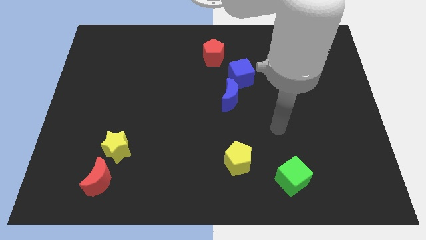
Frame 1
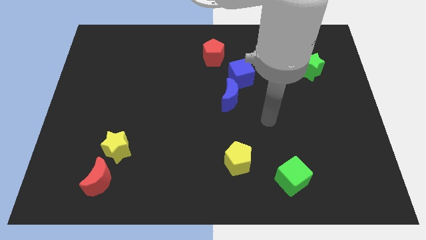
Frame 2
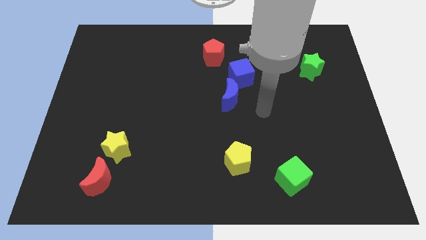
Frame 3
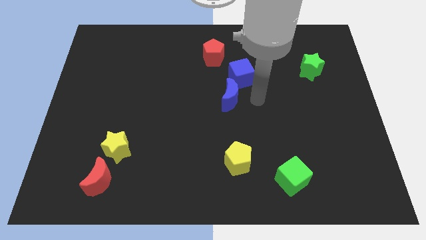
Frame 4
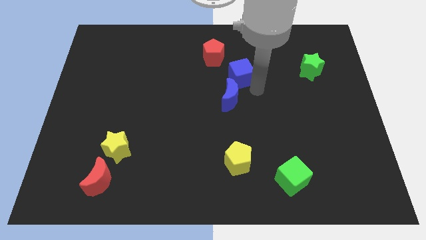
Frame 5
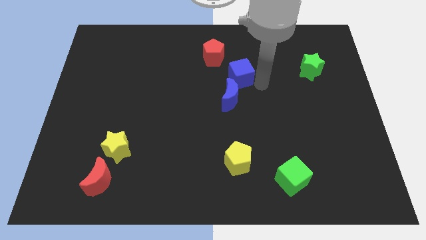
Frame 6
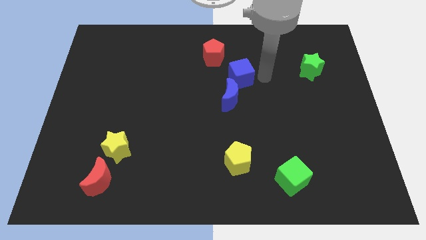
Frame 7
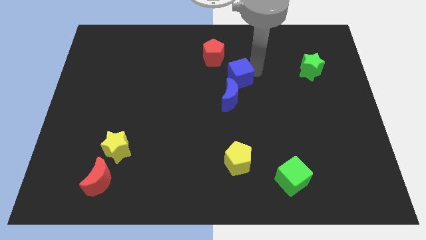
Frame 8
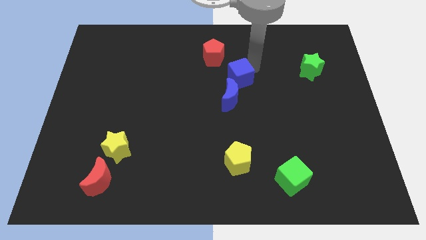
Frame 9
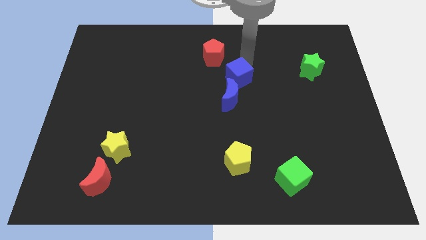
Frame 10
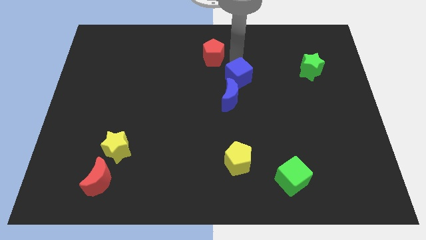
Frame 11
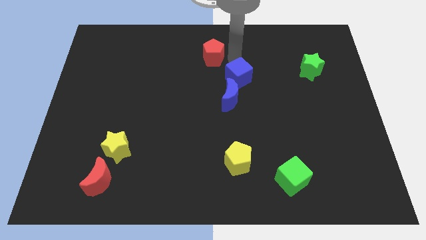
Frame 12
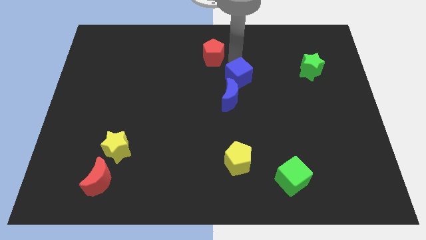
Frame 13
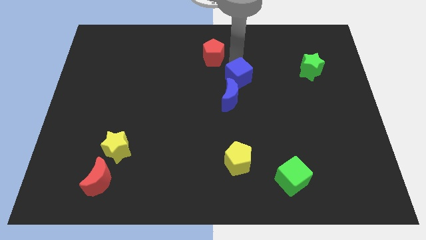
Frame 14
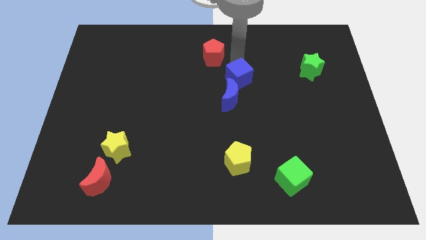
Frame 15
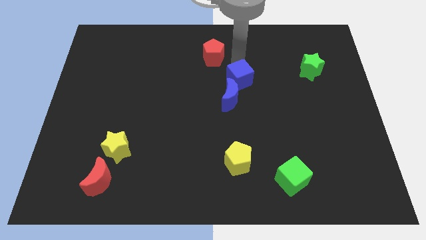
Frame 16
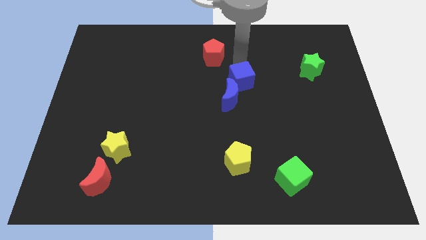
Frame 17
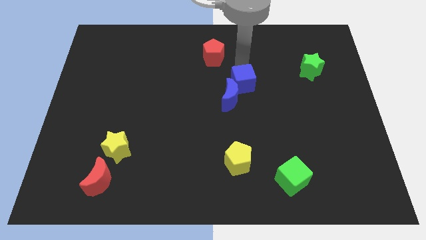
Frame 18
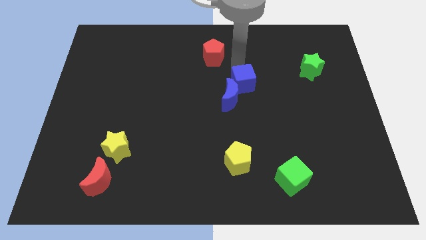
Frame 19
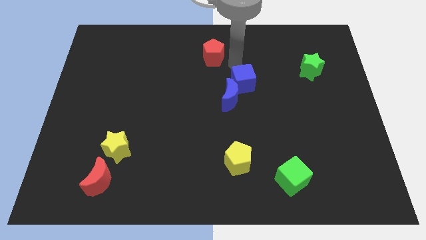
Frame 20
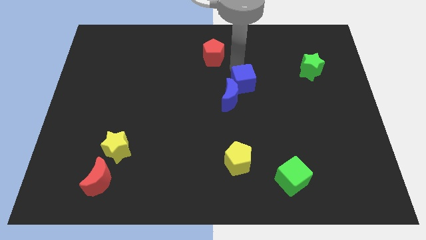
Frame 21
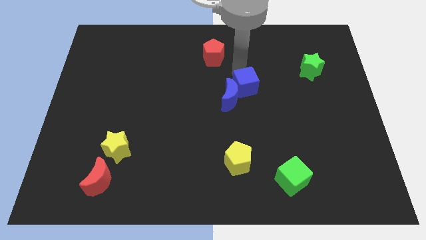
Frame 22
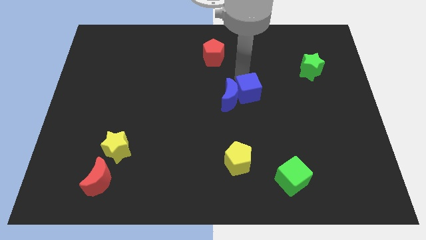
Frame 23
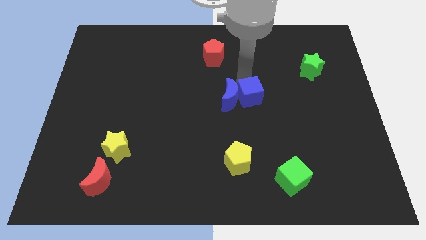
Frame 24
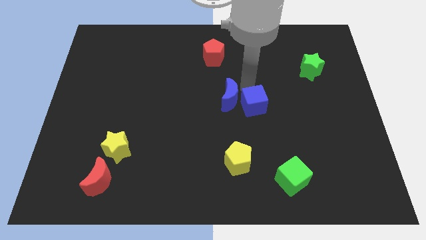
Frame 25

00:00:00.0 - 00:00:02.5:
slide the blue cube a little bit downwards

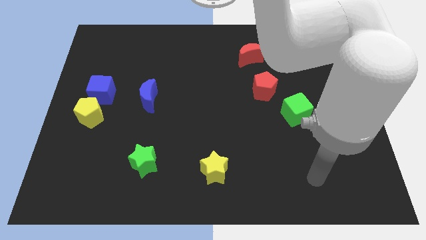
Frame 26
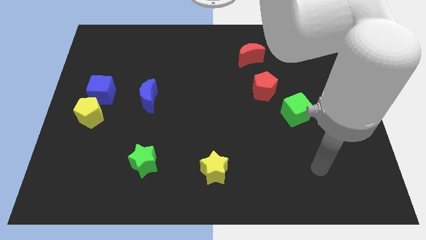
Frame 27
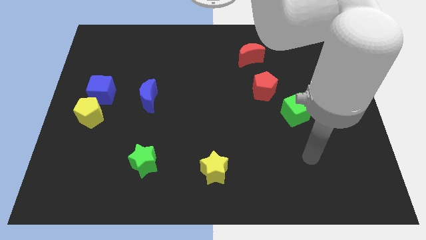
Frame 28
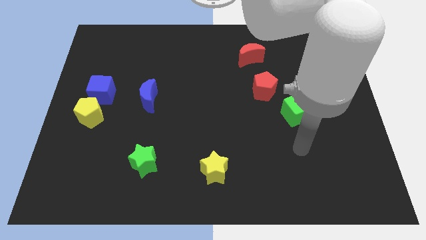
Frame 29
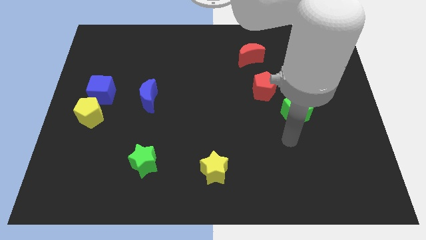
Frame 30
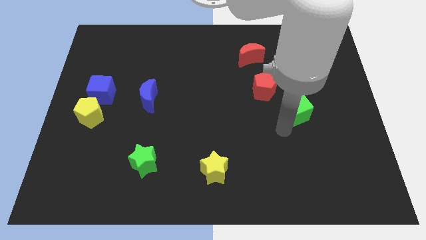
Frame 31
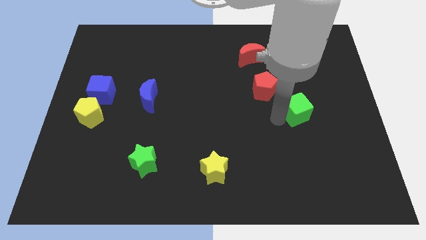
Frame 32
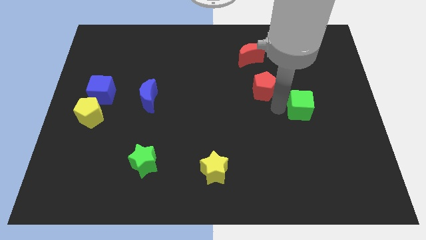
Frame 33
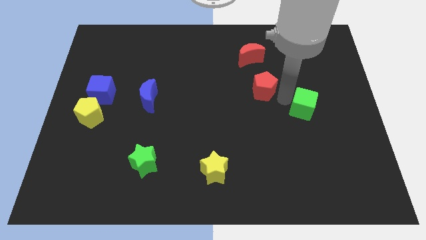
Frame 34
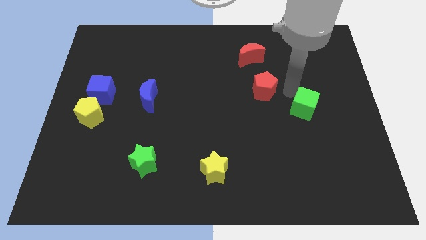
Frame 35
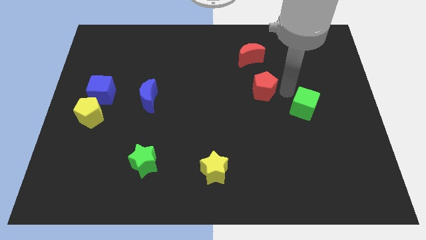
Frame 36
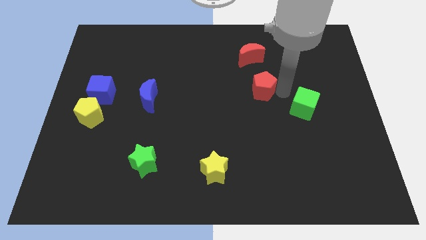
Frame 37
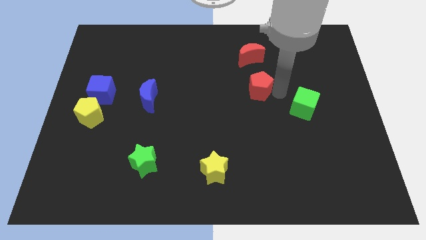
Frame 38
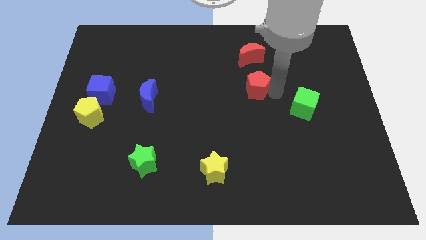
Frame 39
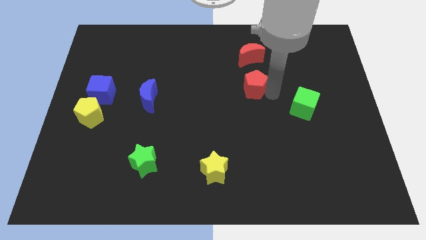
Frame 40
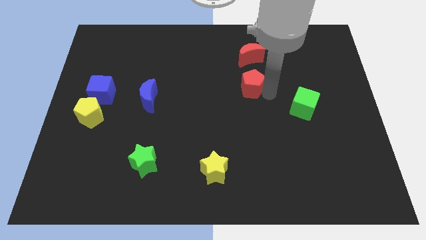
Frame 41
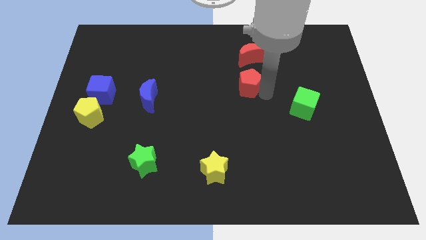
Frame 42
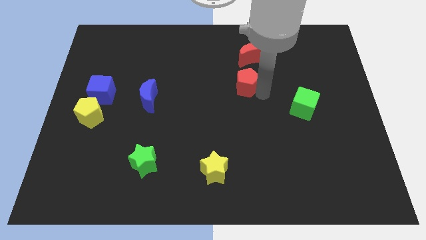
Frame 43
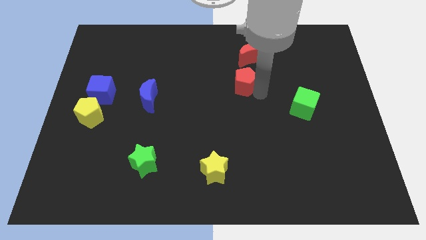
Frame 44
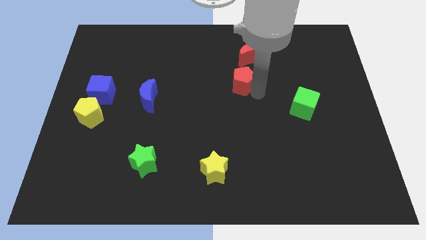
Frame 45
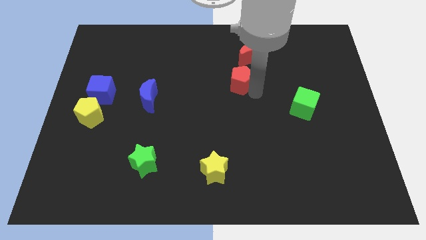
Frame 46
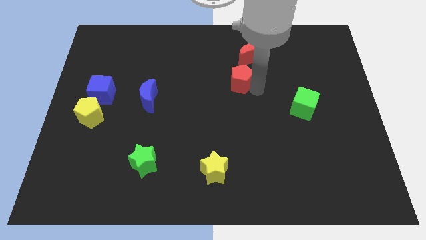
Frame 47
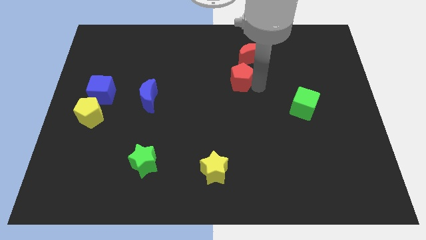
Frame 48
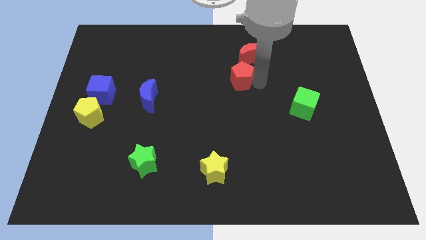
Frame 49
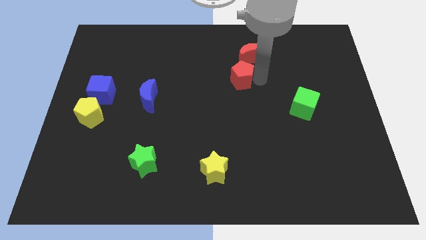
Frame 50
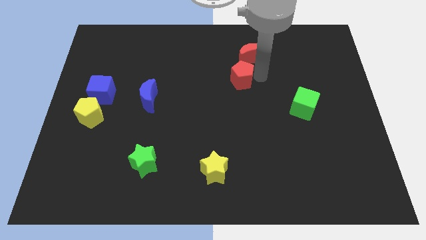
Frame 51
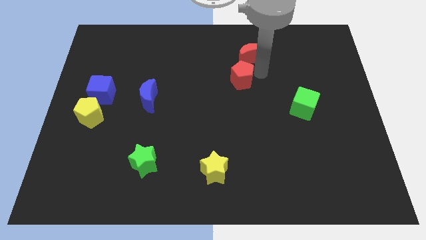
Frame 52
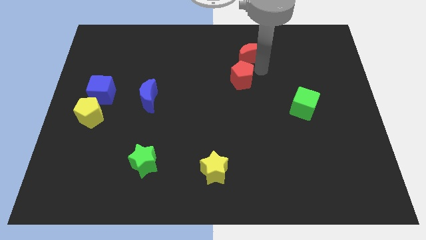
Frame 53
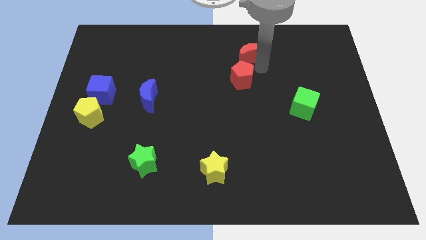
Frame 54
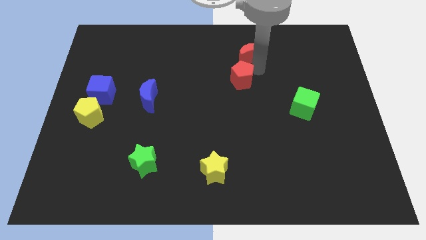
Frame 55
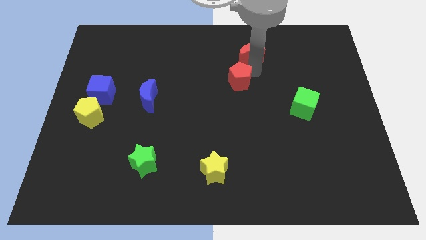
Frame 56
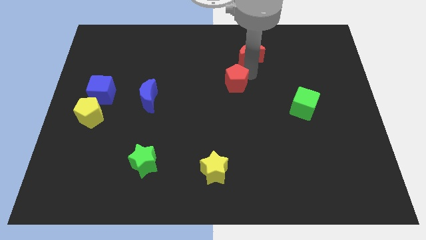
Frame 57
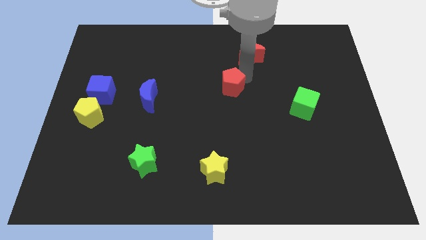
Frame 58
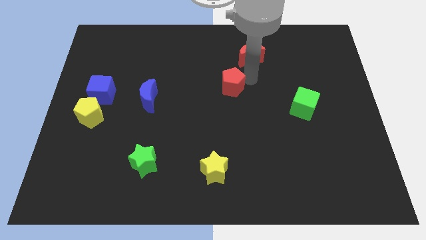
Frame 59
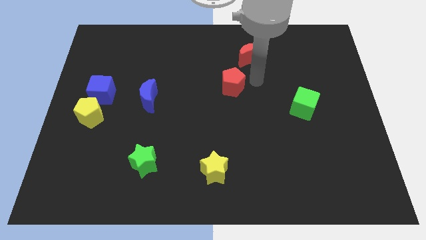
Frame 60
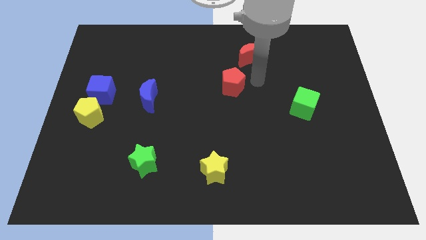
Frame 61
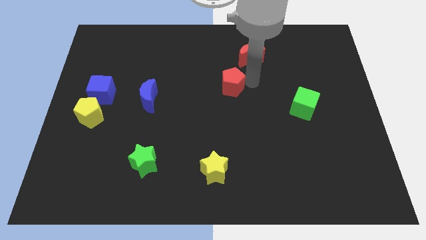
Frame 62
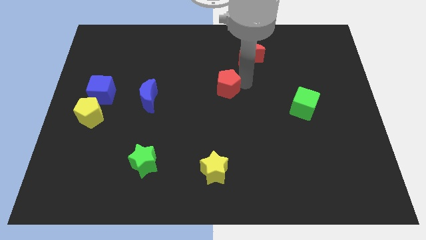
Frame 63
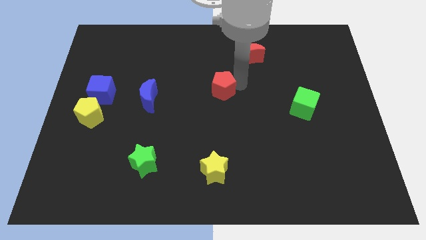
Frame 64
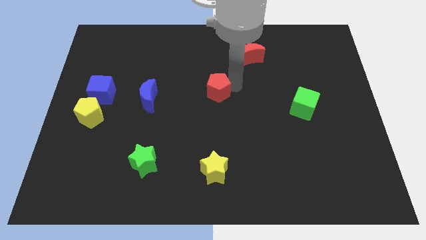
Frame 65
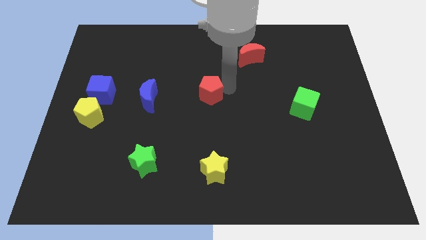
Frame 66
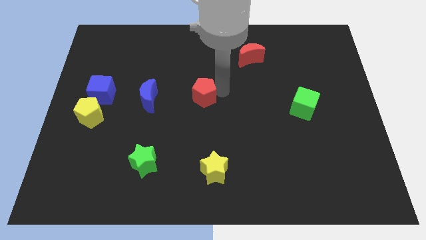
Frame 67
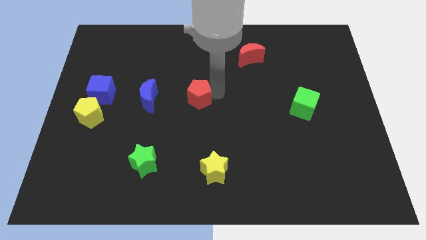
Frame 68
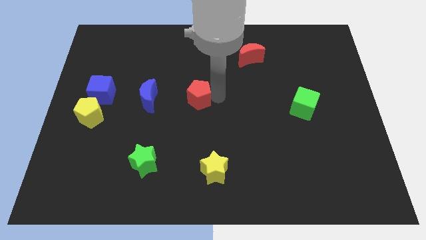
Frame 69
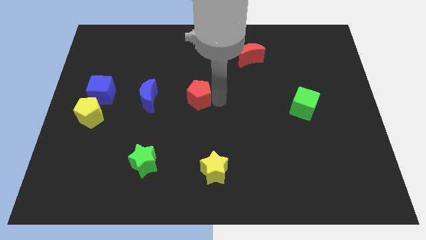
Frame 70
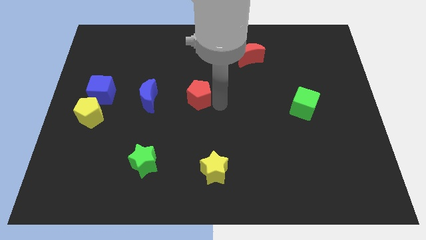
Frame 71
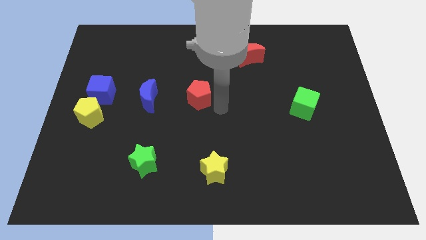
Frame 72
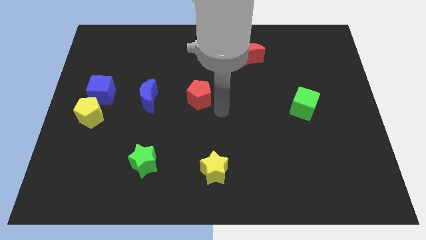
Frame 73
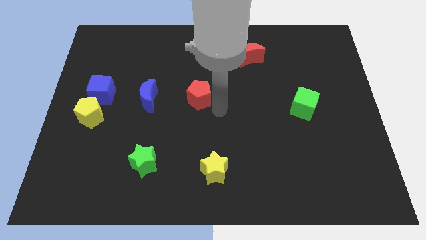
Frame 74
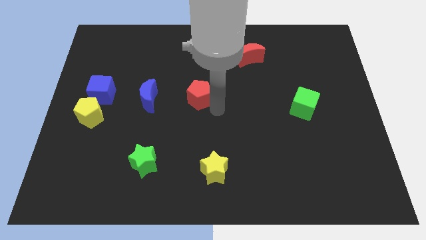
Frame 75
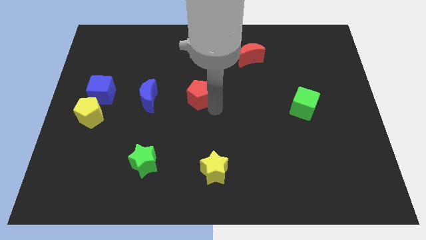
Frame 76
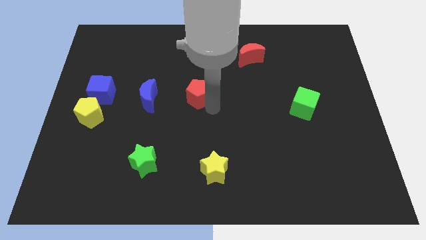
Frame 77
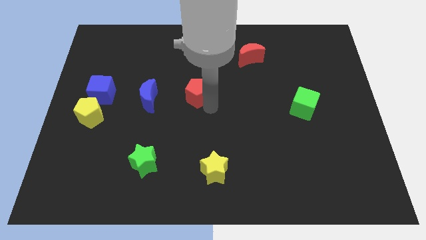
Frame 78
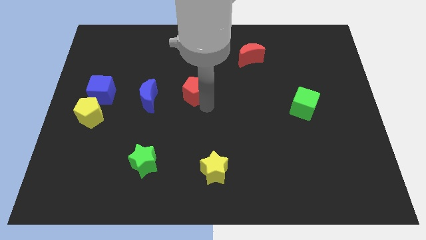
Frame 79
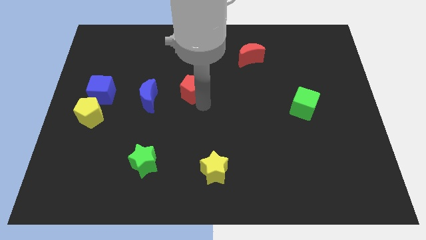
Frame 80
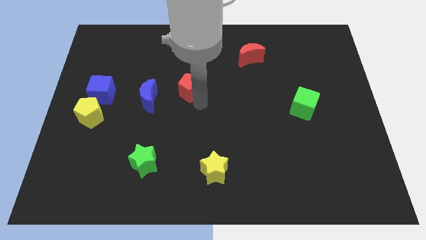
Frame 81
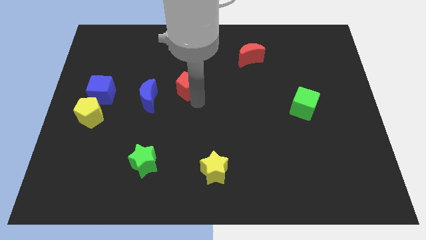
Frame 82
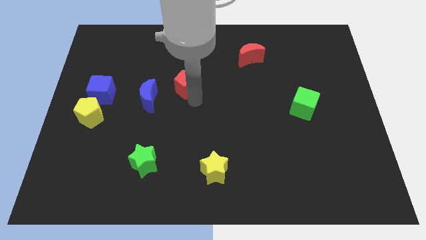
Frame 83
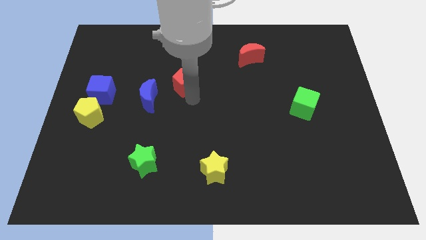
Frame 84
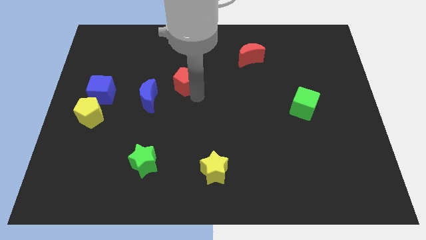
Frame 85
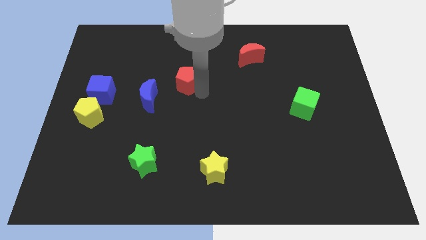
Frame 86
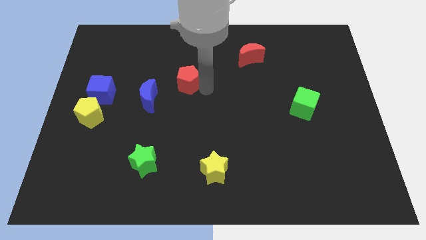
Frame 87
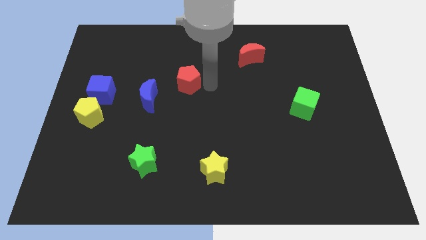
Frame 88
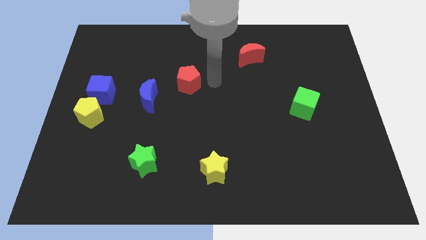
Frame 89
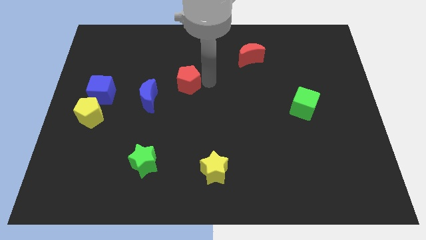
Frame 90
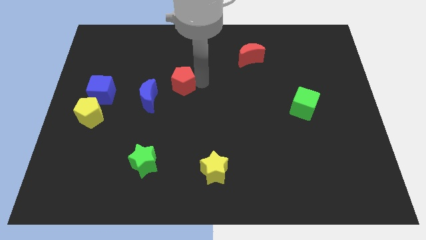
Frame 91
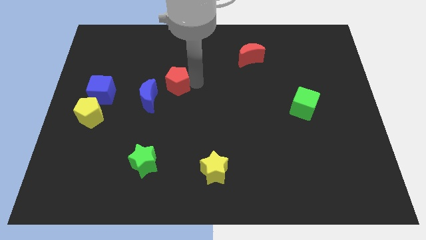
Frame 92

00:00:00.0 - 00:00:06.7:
move the red pentagon left
